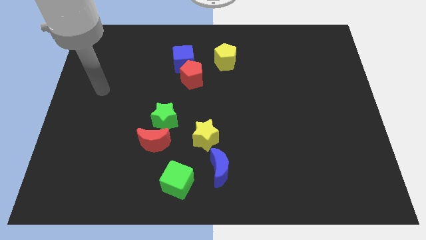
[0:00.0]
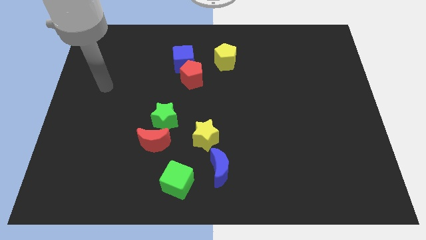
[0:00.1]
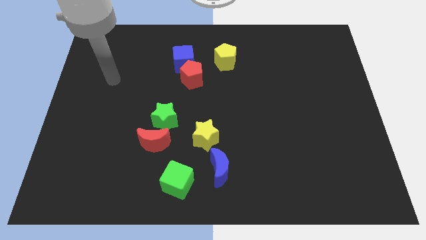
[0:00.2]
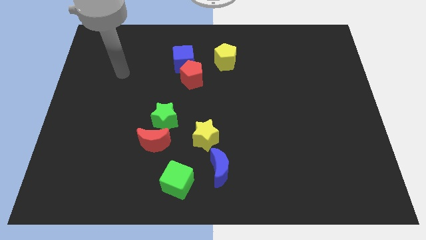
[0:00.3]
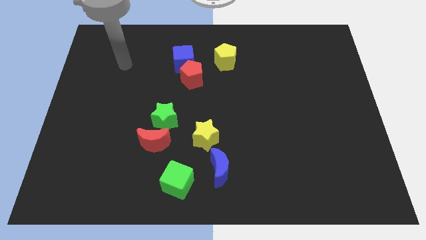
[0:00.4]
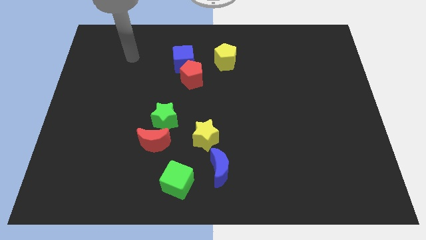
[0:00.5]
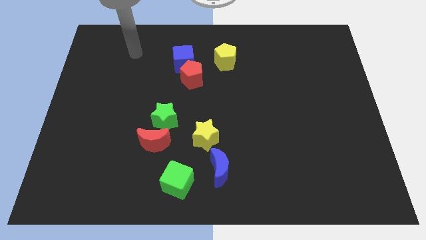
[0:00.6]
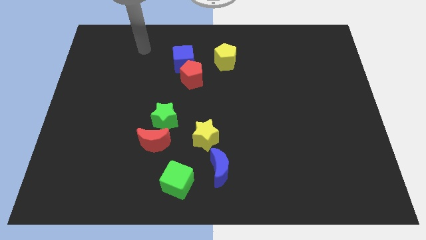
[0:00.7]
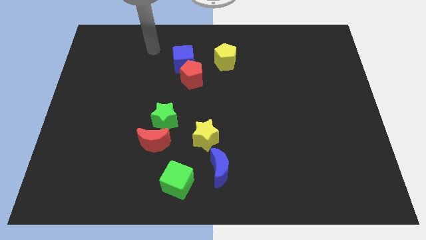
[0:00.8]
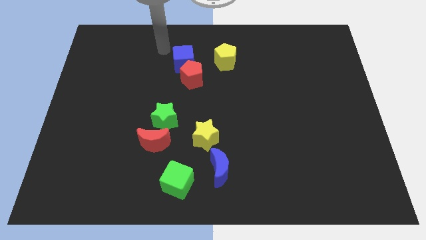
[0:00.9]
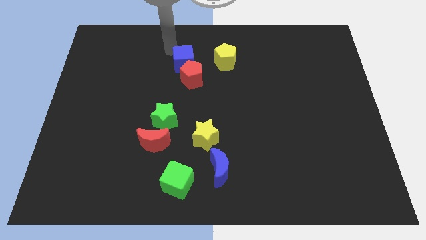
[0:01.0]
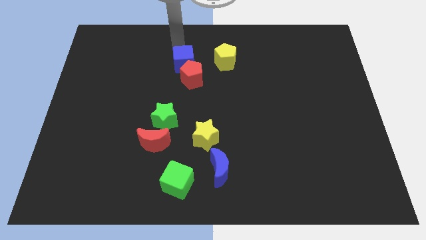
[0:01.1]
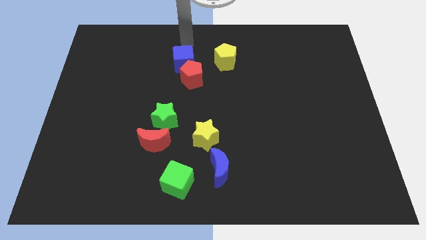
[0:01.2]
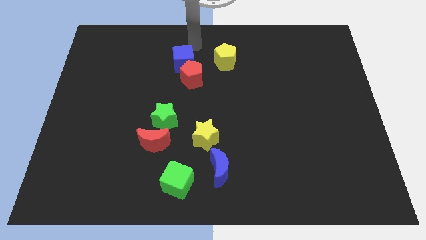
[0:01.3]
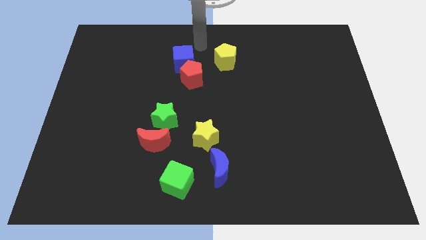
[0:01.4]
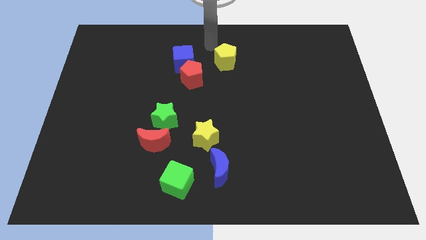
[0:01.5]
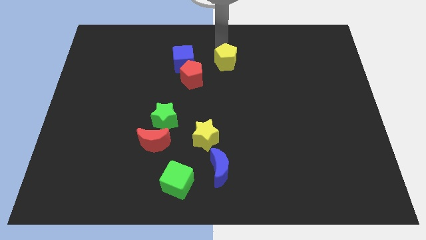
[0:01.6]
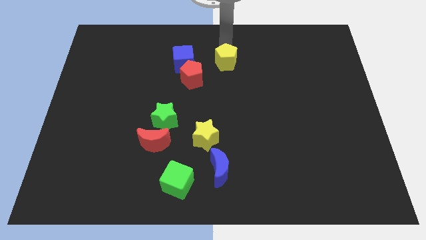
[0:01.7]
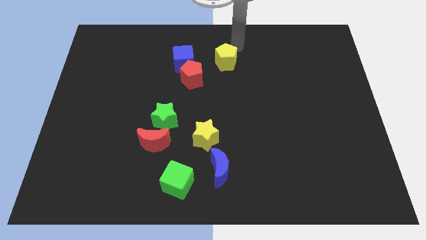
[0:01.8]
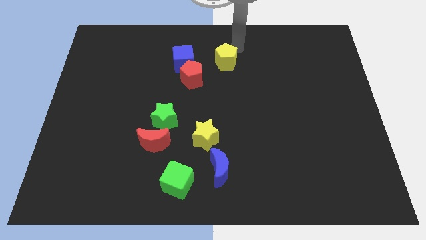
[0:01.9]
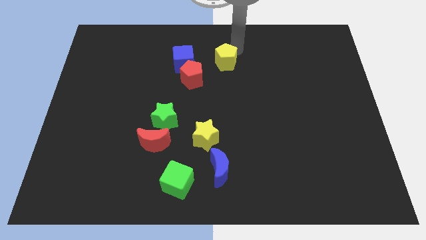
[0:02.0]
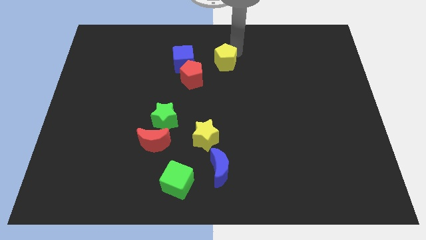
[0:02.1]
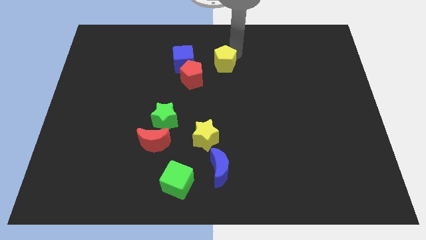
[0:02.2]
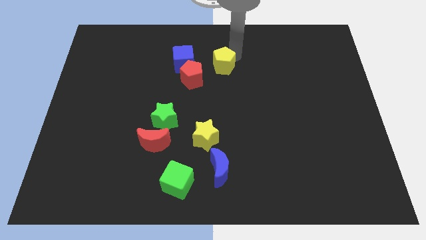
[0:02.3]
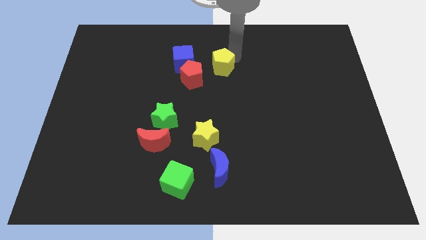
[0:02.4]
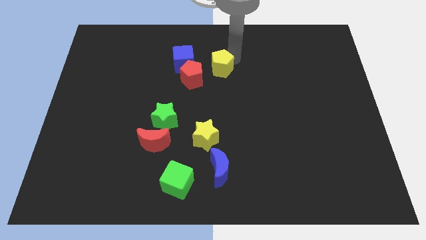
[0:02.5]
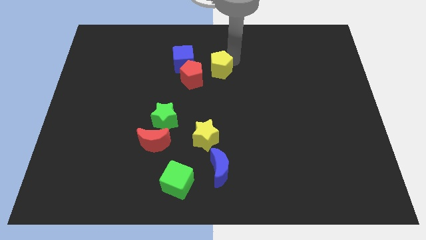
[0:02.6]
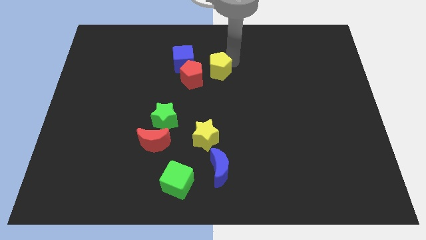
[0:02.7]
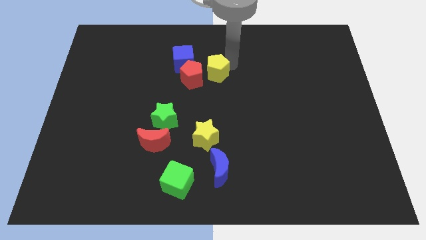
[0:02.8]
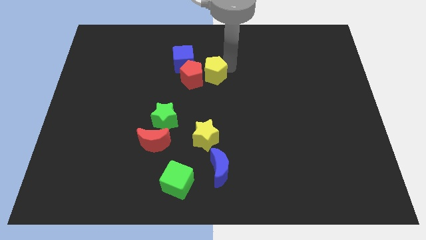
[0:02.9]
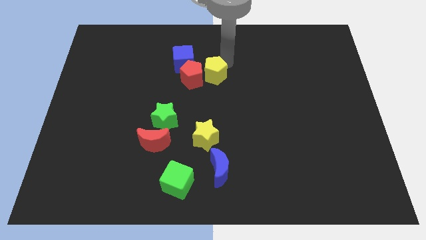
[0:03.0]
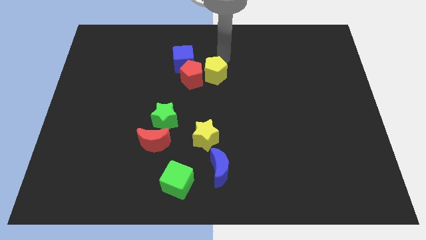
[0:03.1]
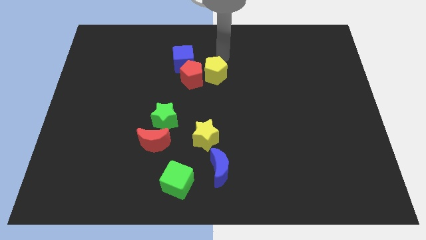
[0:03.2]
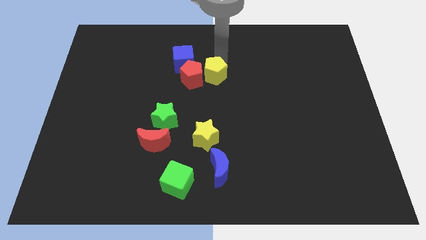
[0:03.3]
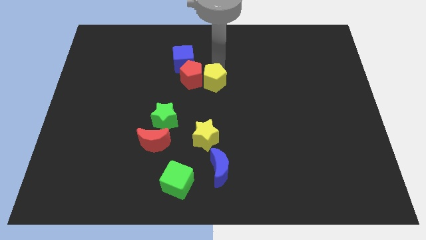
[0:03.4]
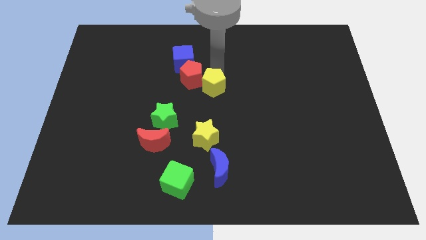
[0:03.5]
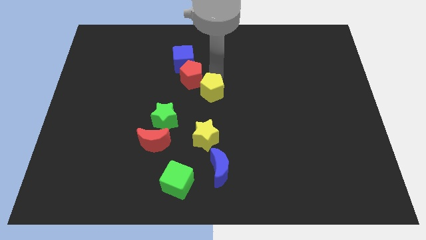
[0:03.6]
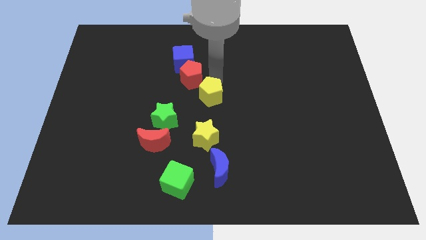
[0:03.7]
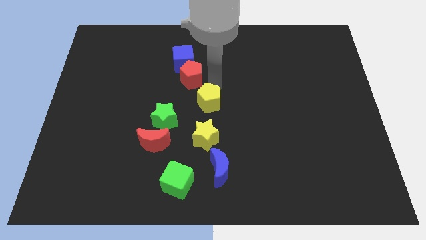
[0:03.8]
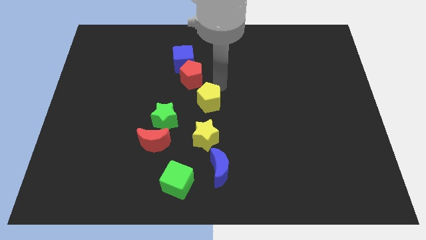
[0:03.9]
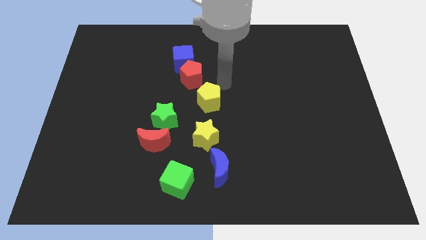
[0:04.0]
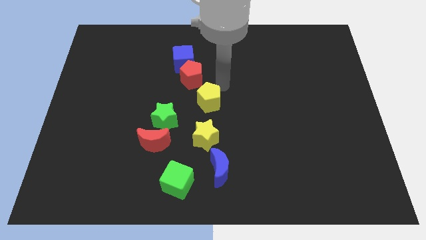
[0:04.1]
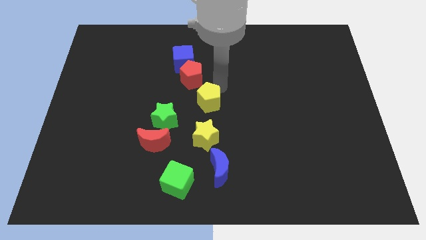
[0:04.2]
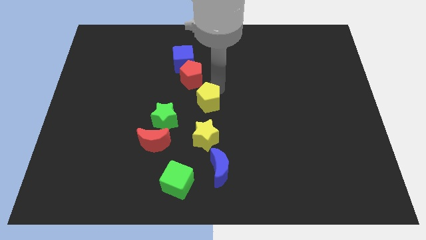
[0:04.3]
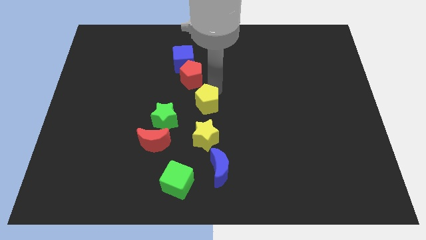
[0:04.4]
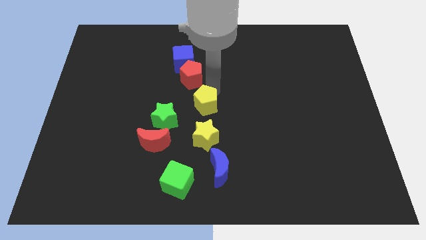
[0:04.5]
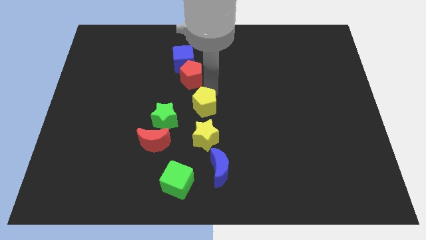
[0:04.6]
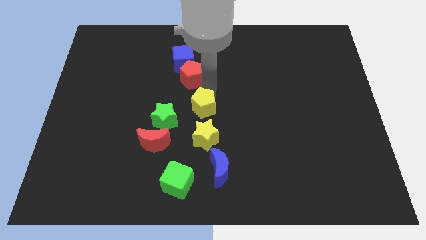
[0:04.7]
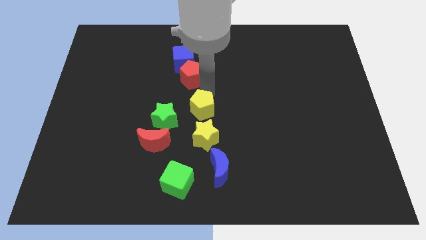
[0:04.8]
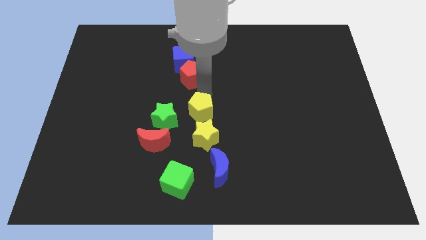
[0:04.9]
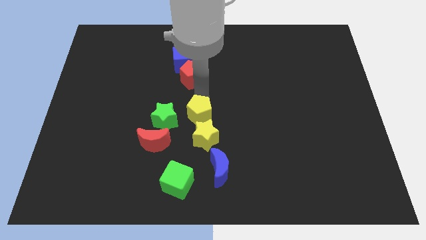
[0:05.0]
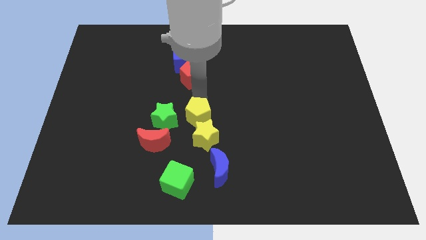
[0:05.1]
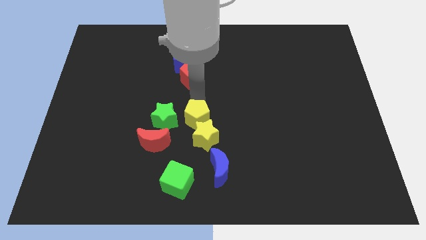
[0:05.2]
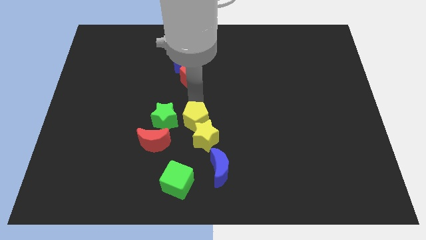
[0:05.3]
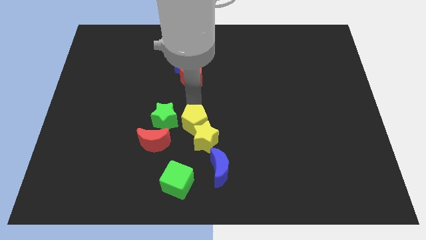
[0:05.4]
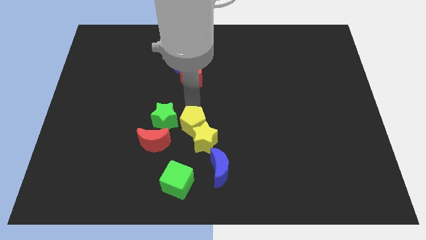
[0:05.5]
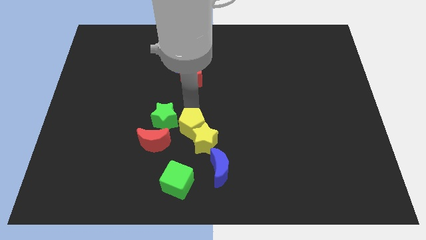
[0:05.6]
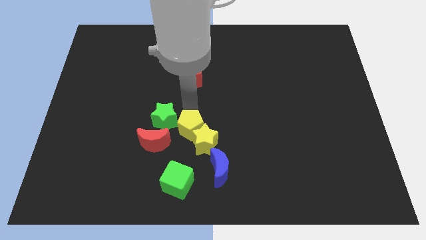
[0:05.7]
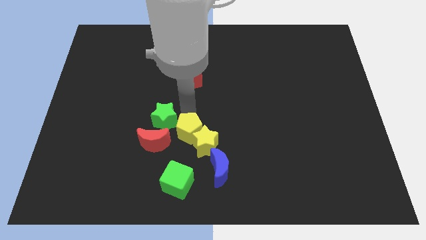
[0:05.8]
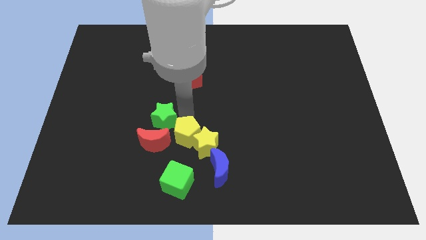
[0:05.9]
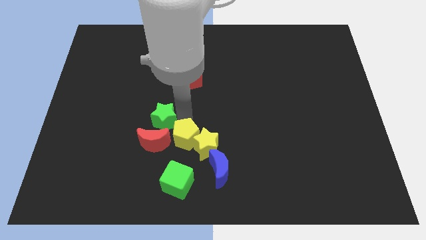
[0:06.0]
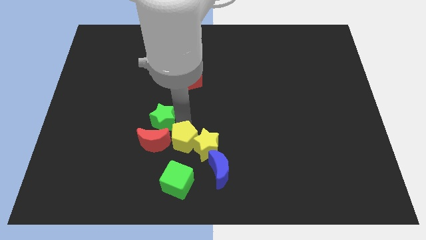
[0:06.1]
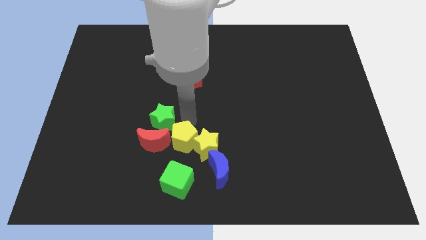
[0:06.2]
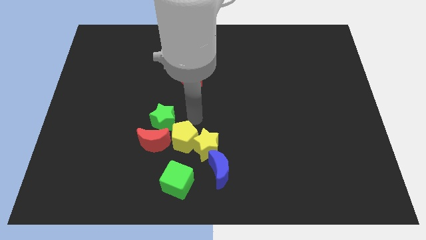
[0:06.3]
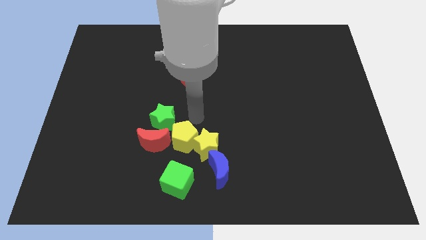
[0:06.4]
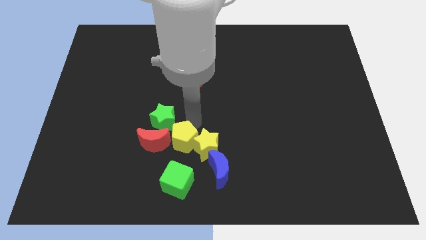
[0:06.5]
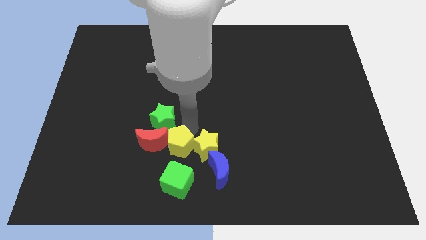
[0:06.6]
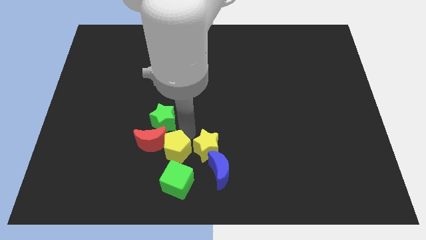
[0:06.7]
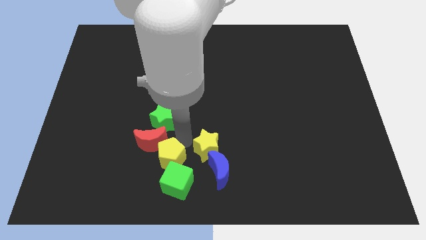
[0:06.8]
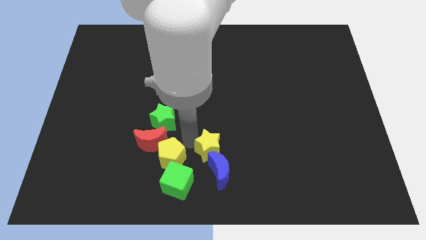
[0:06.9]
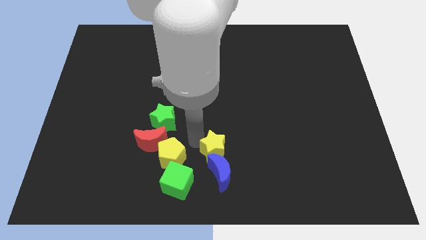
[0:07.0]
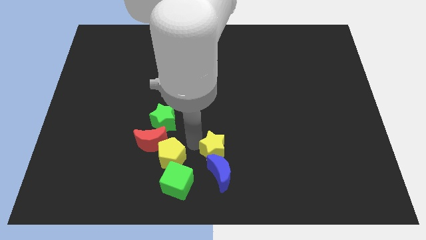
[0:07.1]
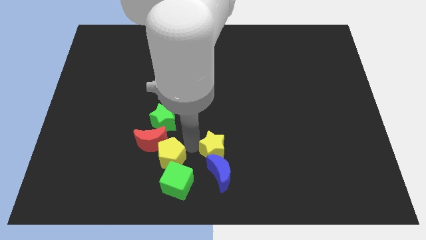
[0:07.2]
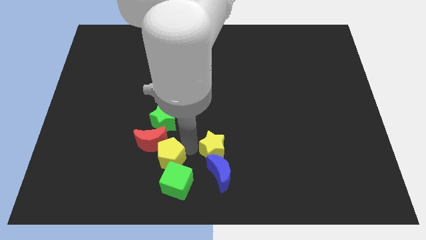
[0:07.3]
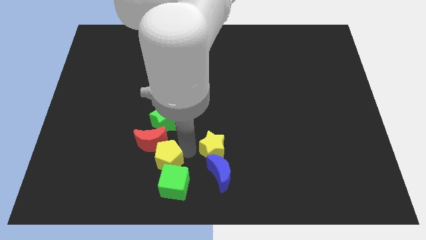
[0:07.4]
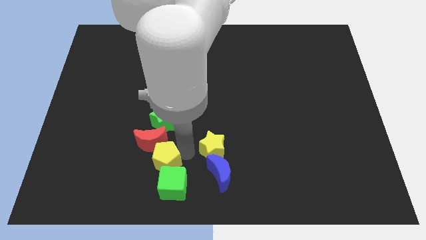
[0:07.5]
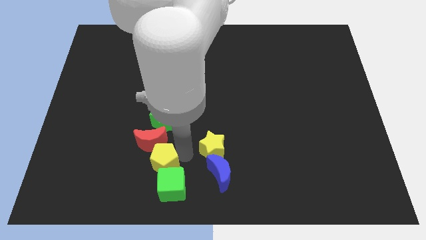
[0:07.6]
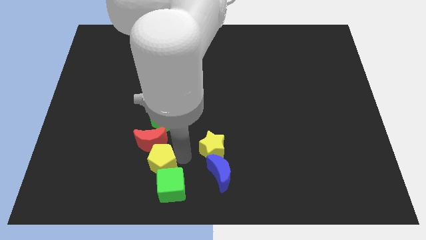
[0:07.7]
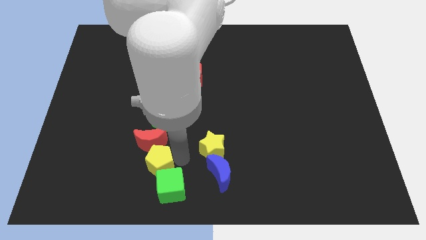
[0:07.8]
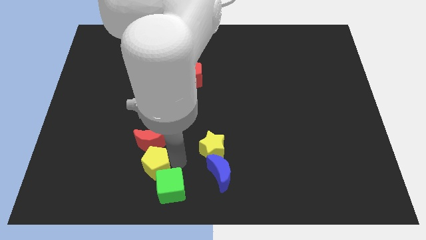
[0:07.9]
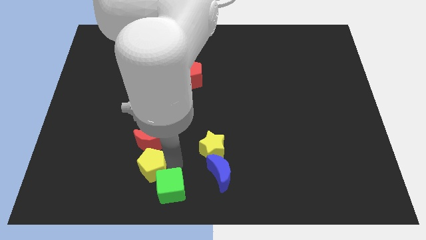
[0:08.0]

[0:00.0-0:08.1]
put the yellow pentagon to the left side of the green cube
